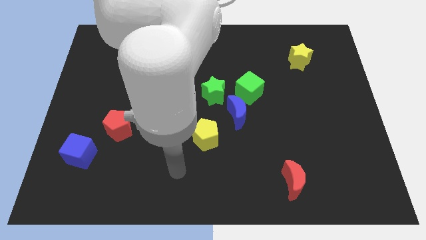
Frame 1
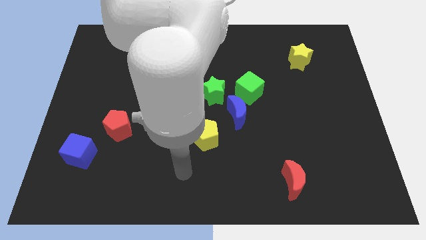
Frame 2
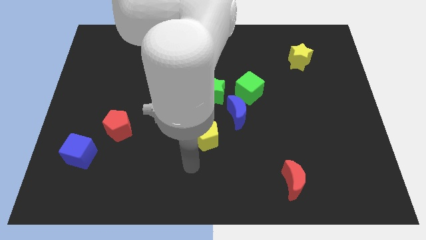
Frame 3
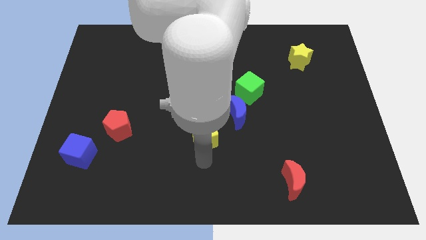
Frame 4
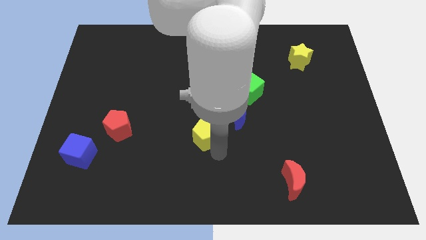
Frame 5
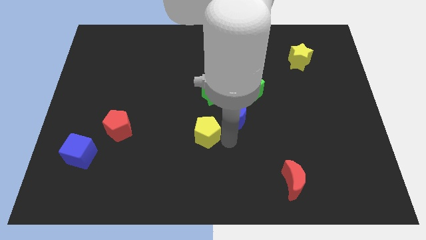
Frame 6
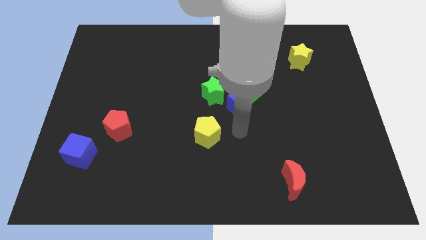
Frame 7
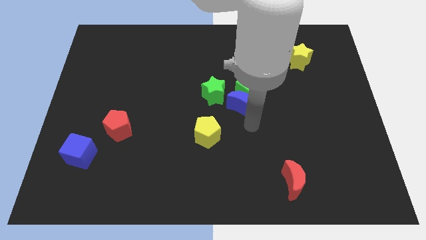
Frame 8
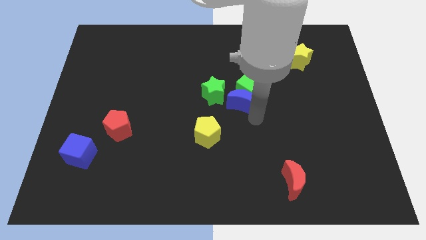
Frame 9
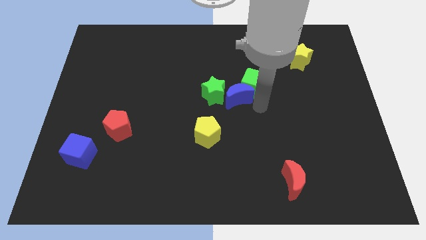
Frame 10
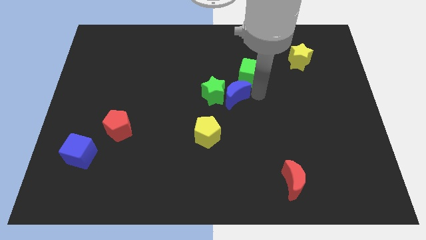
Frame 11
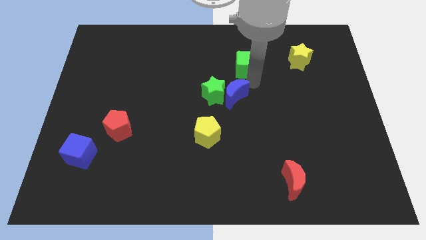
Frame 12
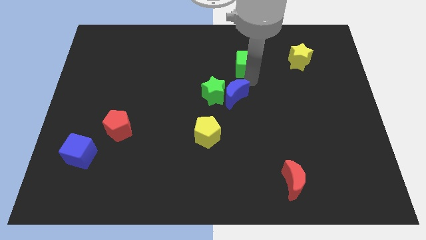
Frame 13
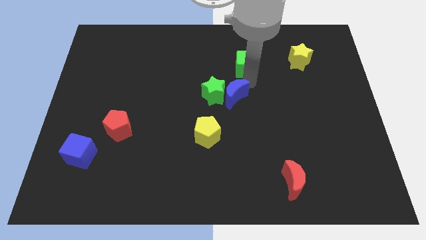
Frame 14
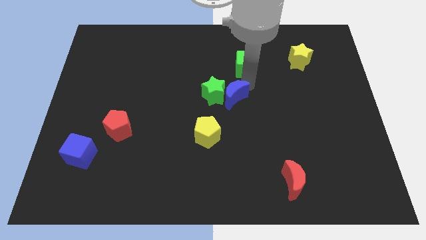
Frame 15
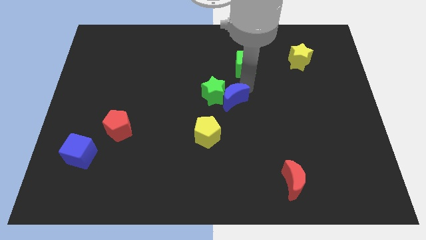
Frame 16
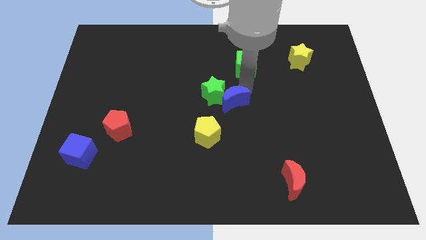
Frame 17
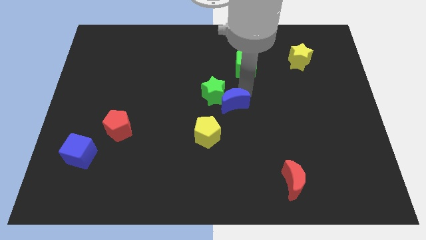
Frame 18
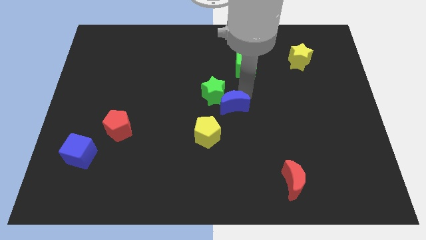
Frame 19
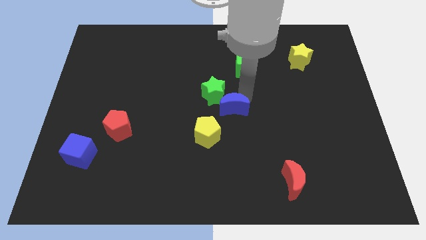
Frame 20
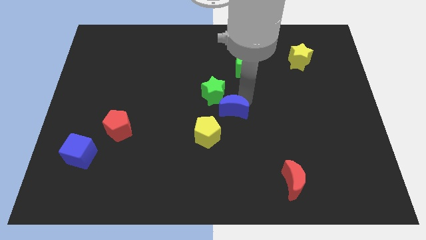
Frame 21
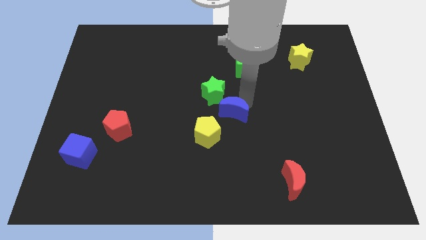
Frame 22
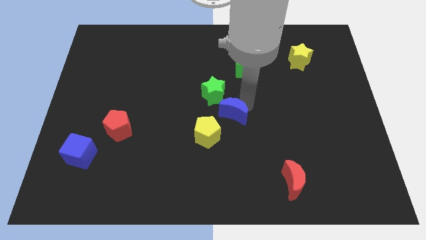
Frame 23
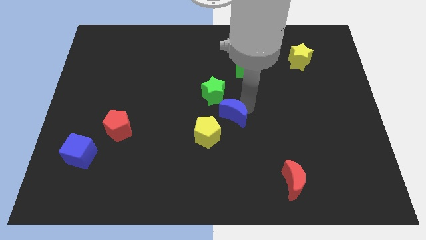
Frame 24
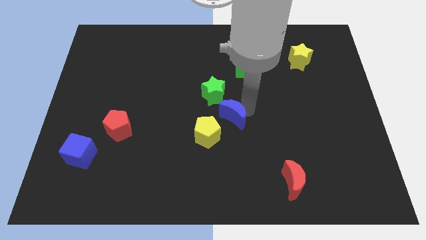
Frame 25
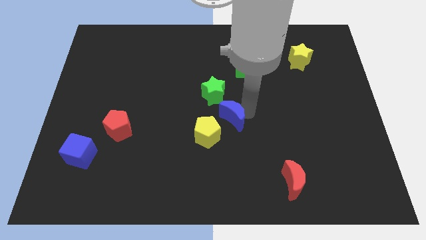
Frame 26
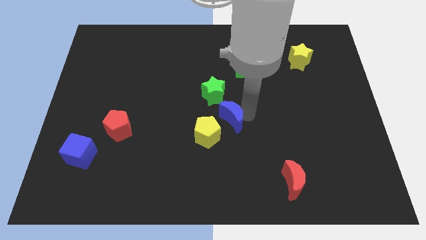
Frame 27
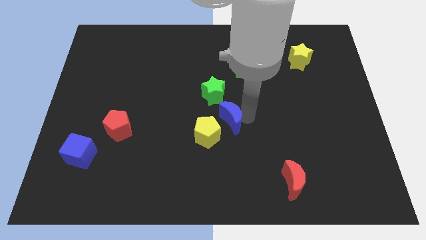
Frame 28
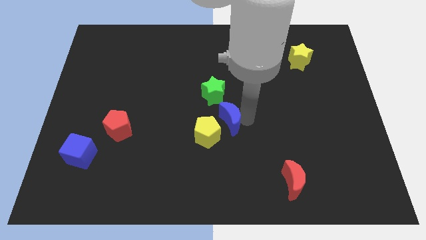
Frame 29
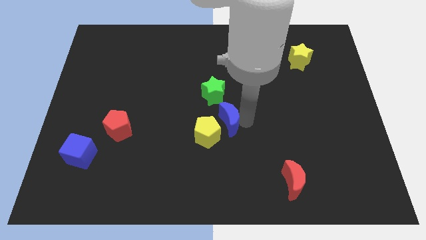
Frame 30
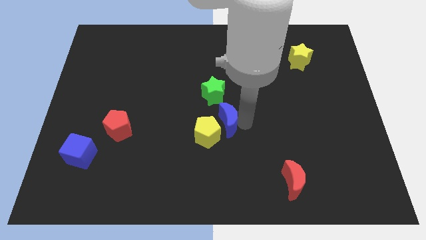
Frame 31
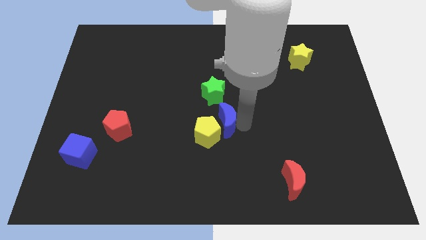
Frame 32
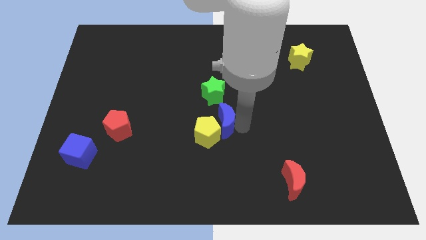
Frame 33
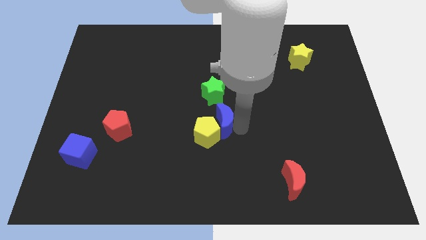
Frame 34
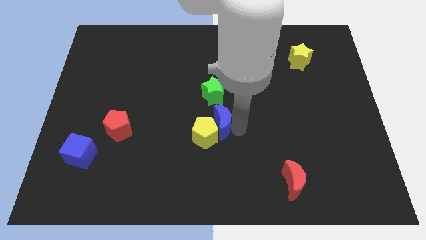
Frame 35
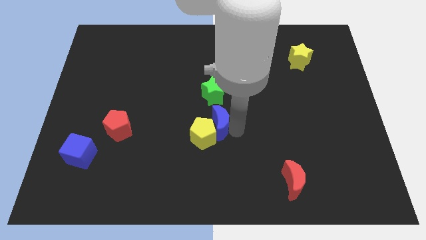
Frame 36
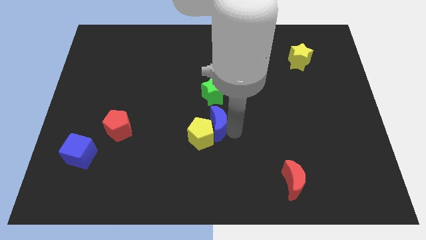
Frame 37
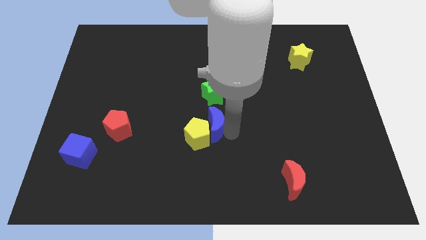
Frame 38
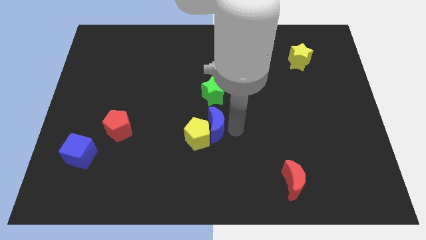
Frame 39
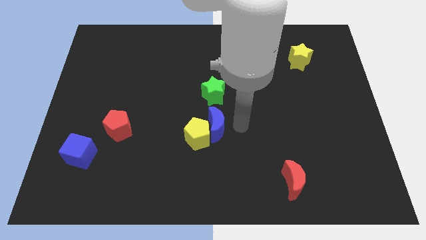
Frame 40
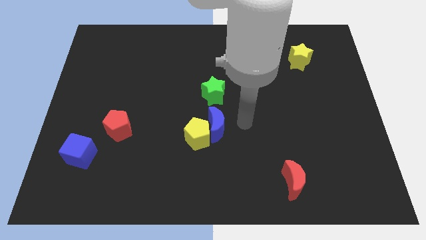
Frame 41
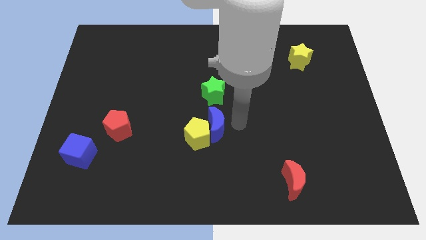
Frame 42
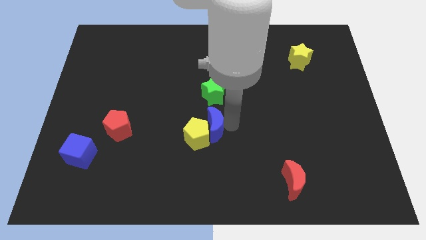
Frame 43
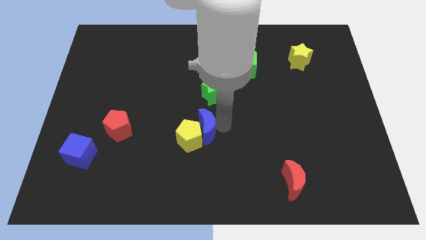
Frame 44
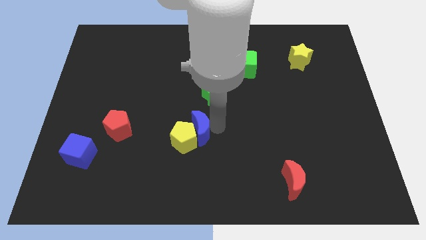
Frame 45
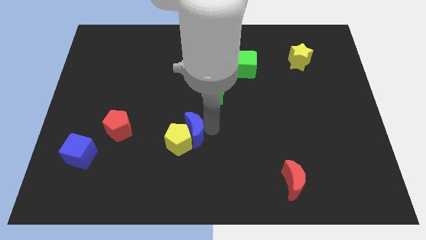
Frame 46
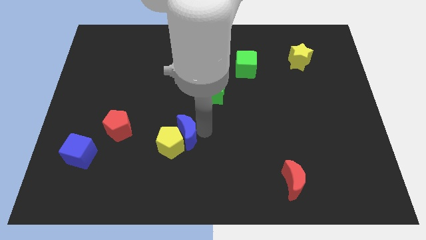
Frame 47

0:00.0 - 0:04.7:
put the blue moon just right of the red pentagon

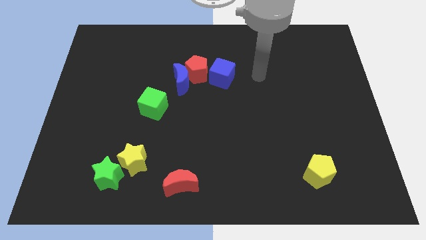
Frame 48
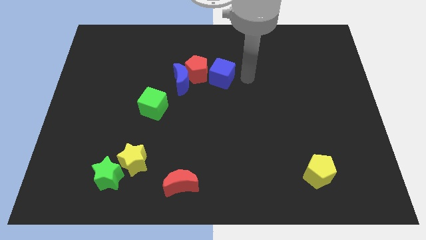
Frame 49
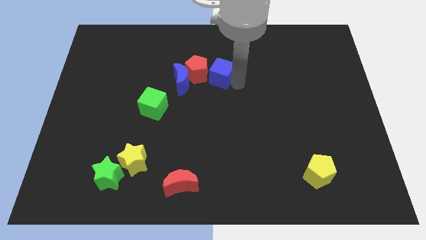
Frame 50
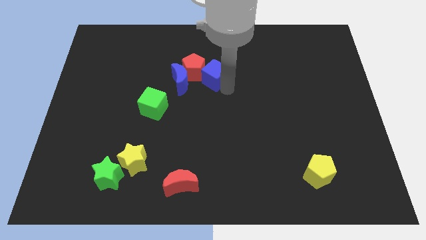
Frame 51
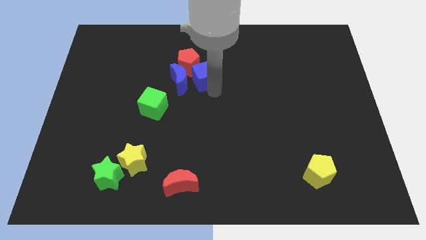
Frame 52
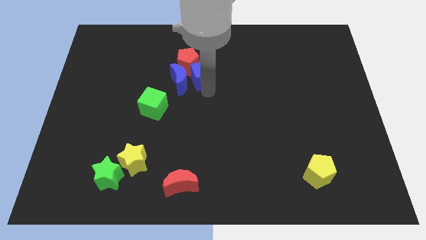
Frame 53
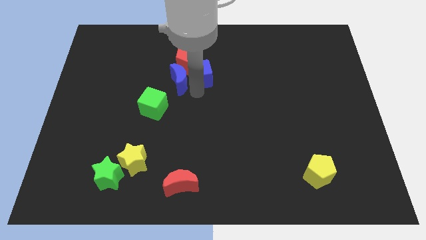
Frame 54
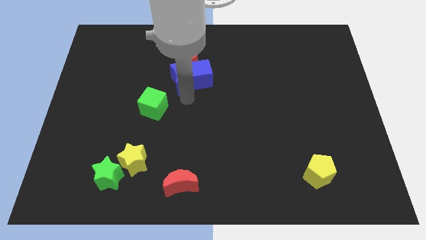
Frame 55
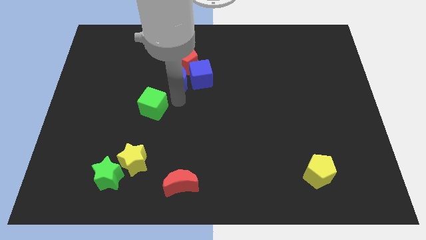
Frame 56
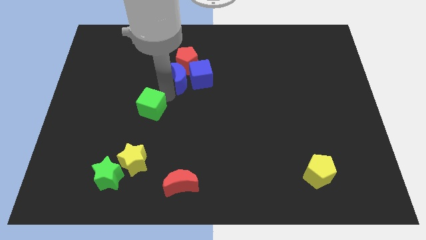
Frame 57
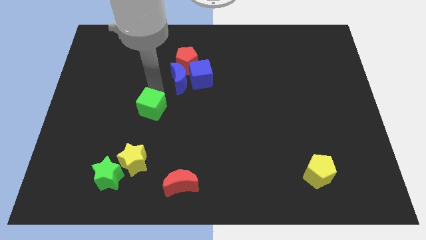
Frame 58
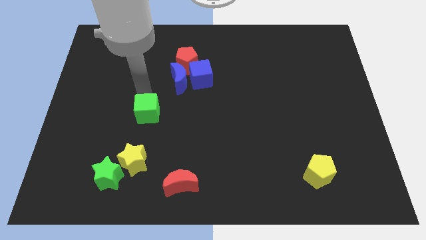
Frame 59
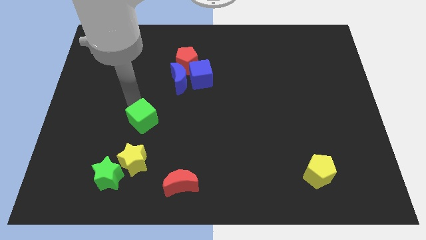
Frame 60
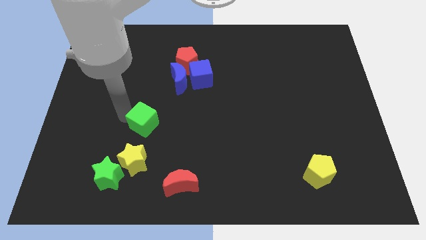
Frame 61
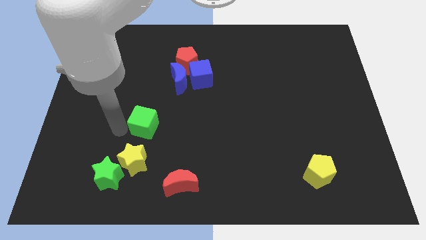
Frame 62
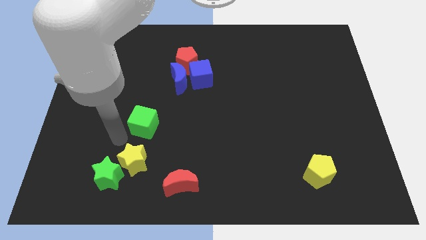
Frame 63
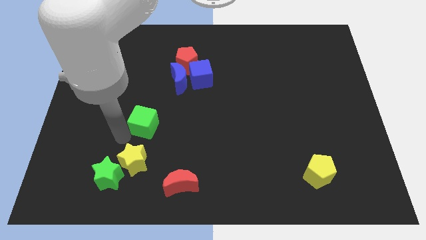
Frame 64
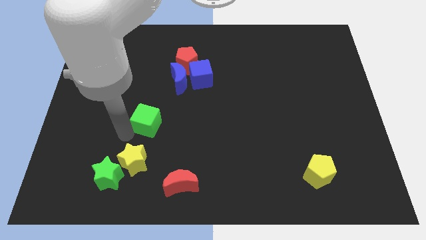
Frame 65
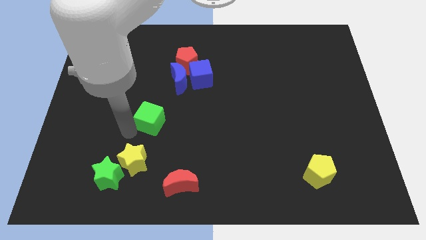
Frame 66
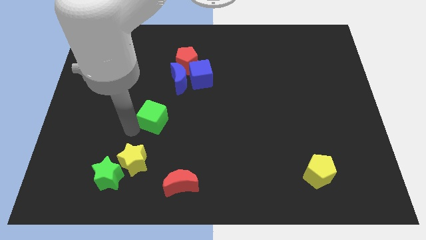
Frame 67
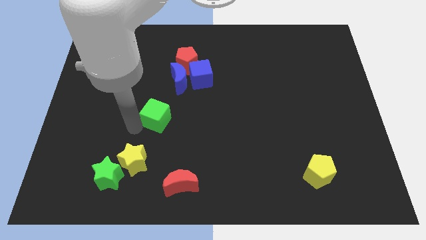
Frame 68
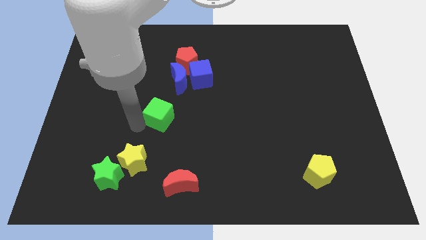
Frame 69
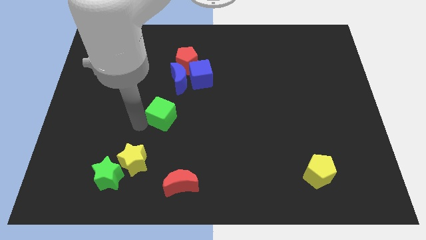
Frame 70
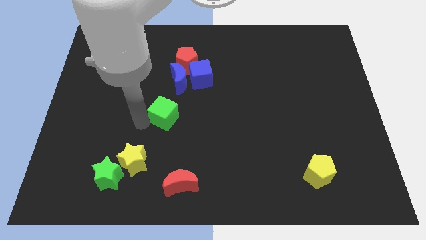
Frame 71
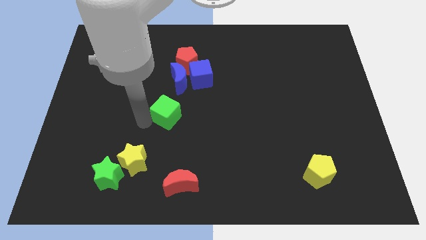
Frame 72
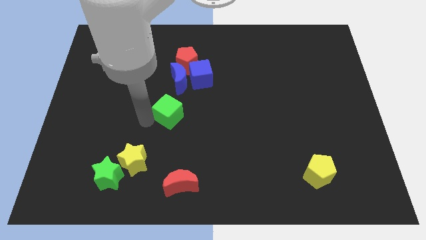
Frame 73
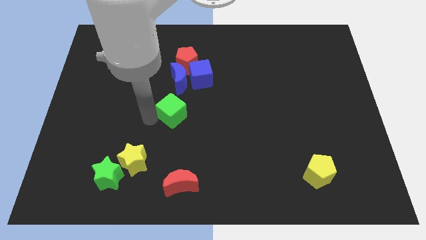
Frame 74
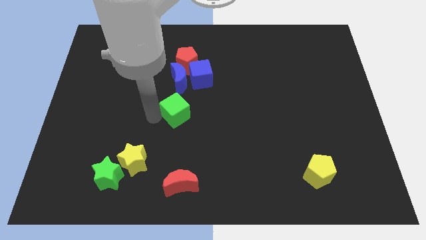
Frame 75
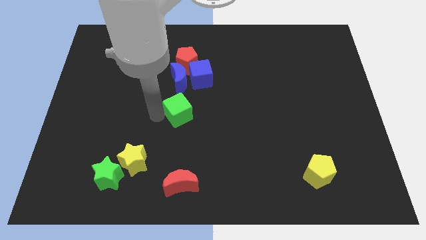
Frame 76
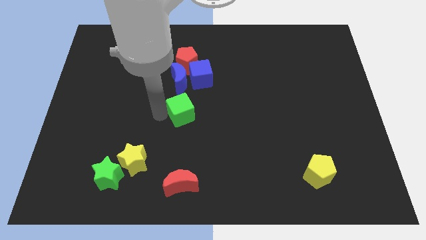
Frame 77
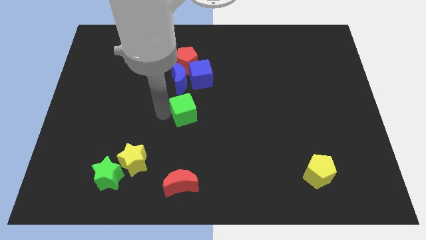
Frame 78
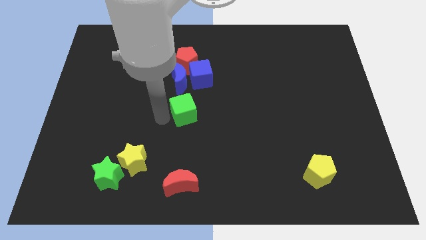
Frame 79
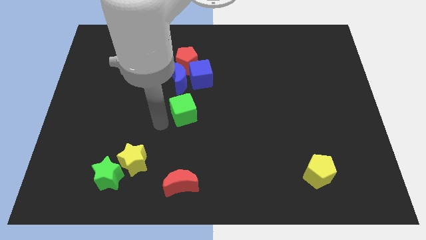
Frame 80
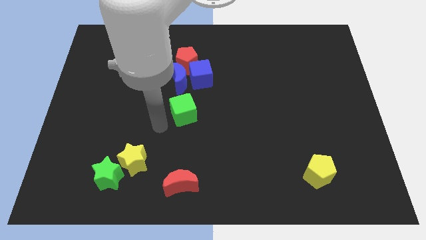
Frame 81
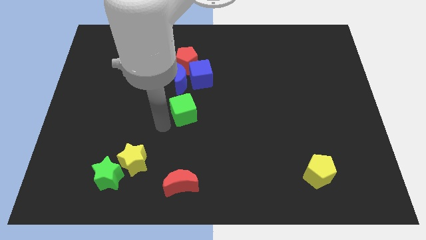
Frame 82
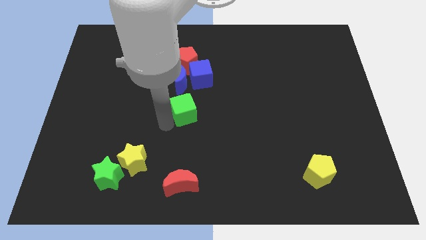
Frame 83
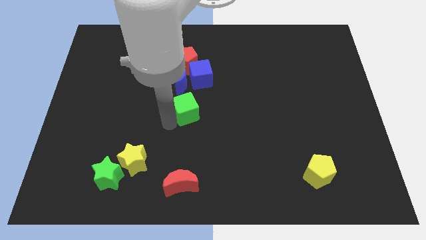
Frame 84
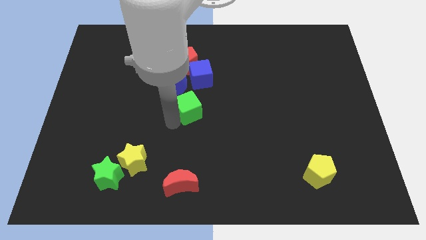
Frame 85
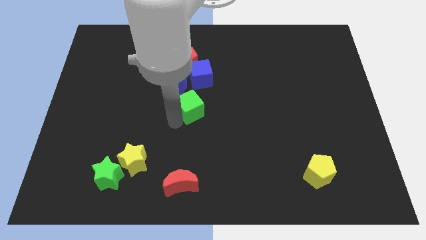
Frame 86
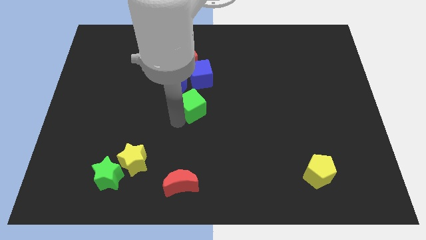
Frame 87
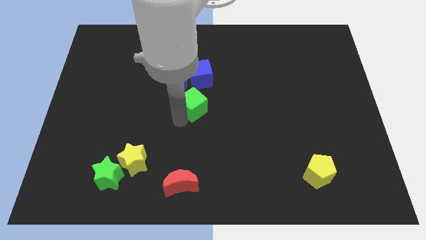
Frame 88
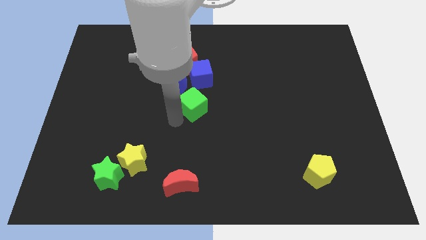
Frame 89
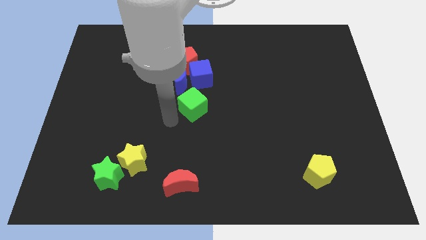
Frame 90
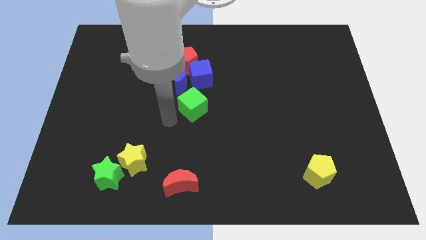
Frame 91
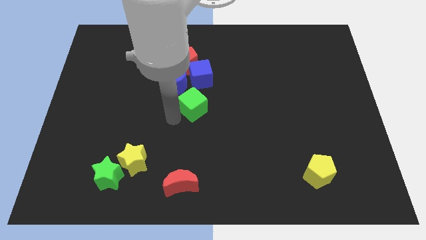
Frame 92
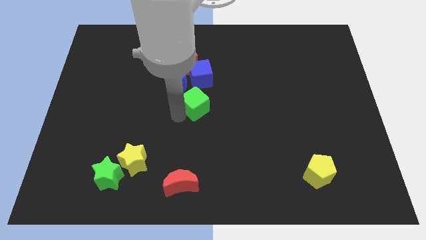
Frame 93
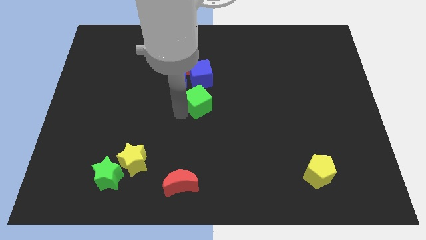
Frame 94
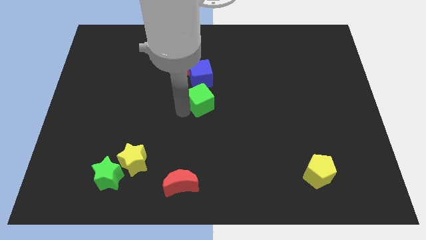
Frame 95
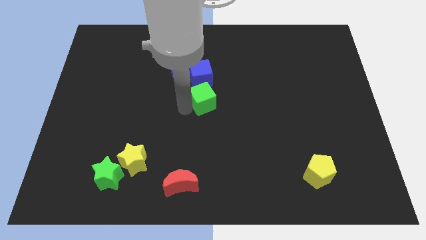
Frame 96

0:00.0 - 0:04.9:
slide the green cube diagonally down and to the right of the blue cube
